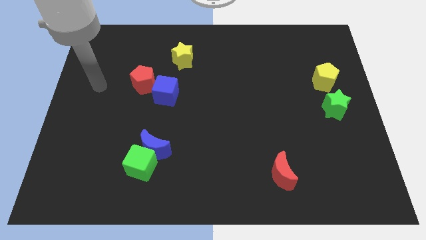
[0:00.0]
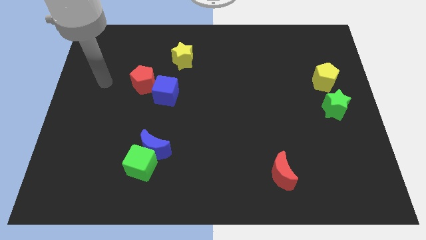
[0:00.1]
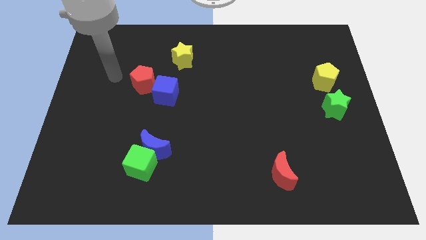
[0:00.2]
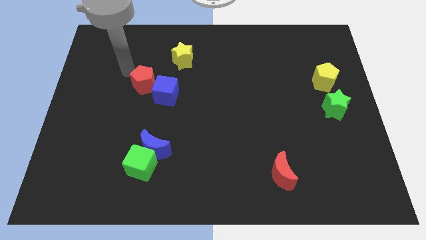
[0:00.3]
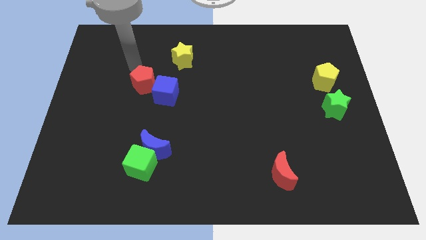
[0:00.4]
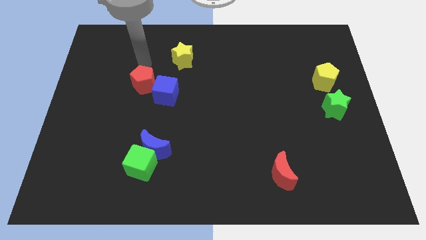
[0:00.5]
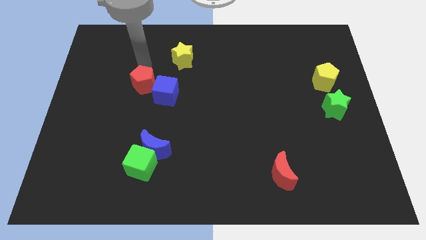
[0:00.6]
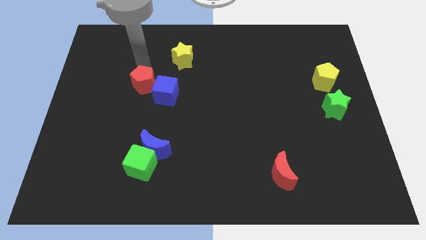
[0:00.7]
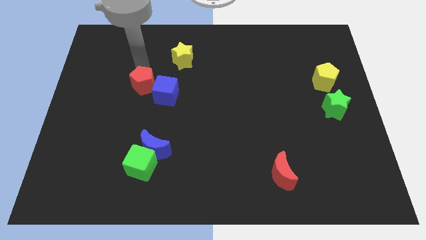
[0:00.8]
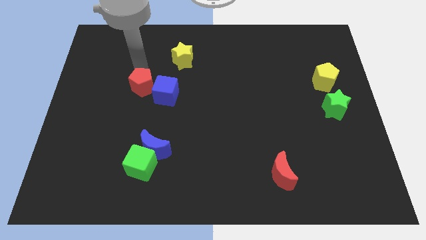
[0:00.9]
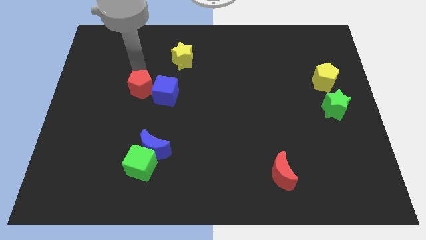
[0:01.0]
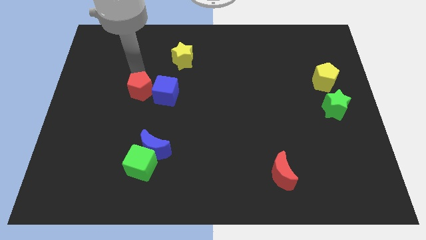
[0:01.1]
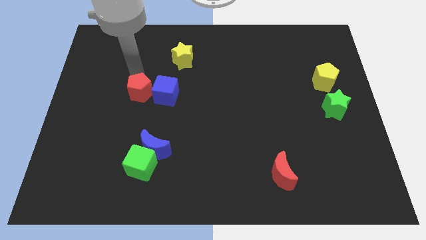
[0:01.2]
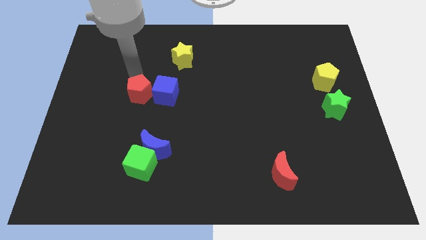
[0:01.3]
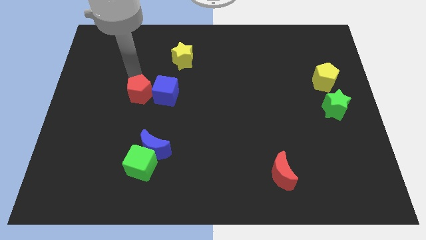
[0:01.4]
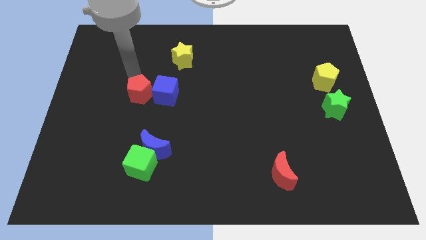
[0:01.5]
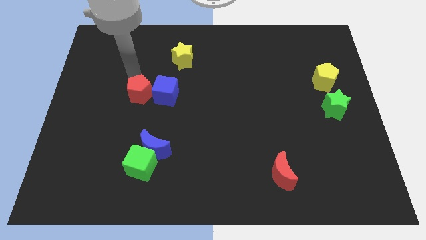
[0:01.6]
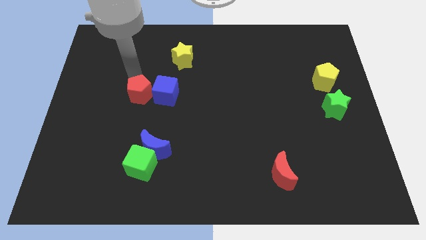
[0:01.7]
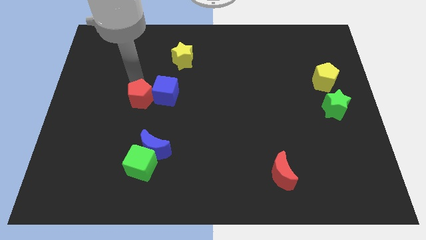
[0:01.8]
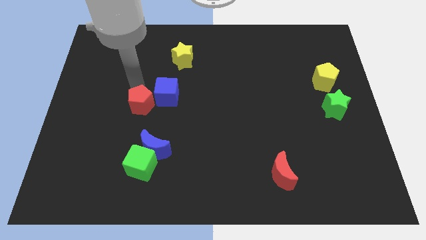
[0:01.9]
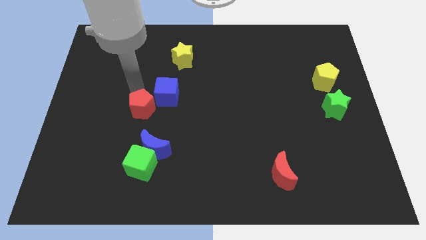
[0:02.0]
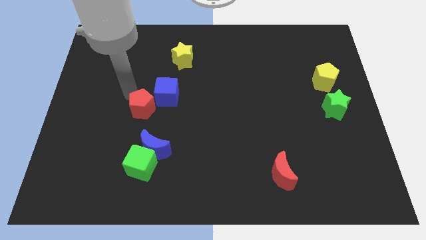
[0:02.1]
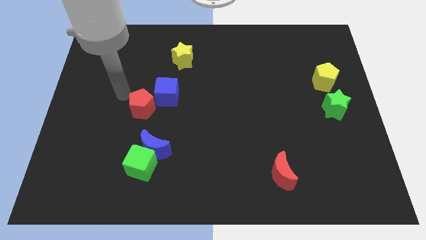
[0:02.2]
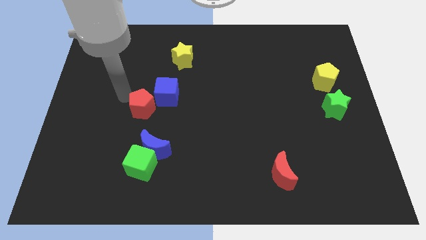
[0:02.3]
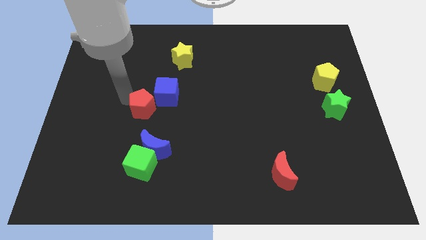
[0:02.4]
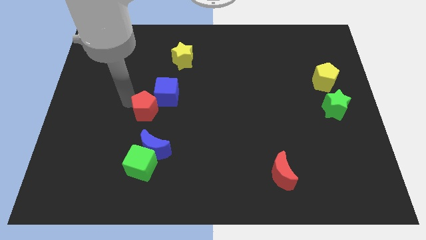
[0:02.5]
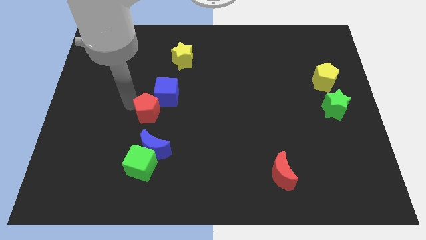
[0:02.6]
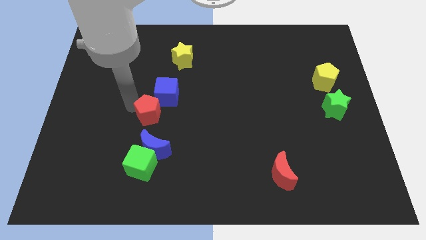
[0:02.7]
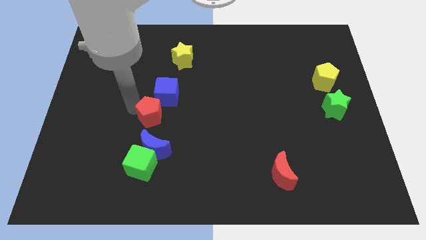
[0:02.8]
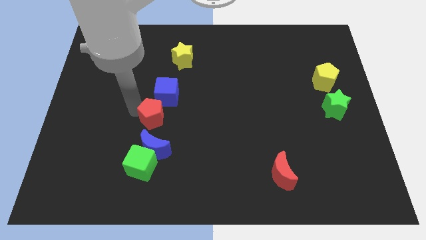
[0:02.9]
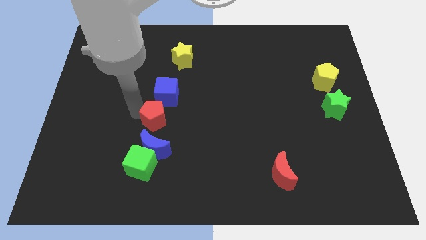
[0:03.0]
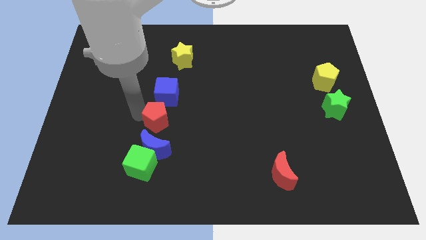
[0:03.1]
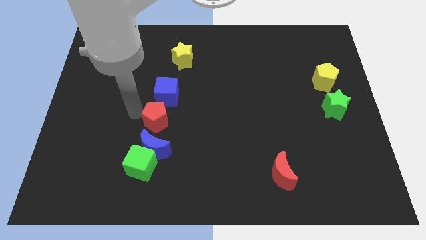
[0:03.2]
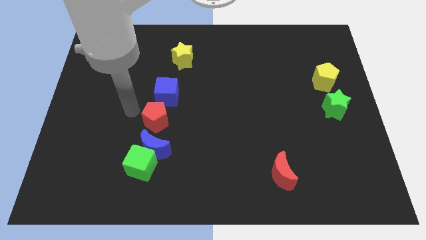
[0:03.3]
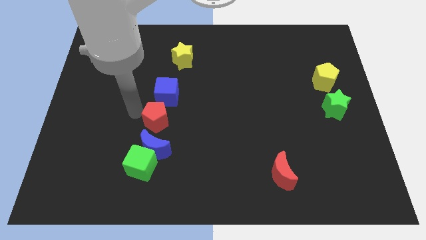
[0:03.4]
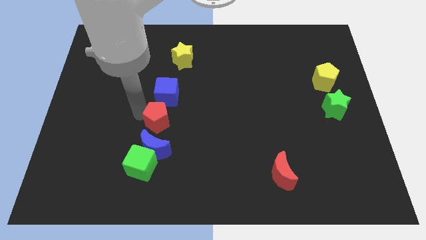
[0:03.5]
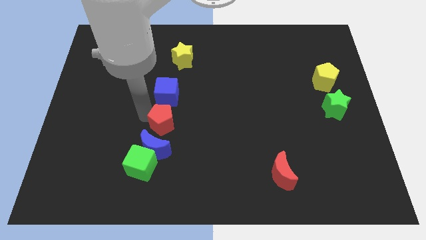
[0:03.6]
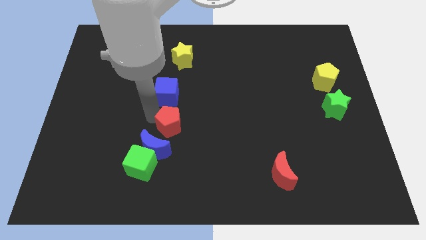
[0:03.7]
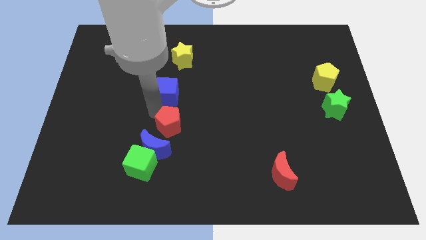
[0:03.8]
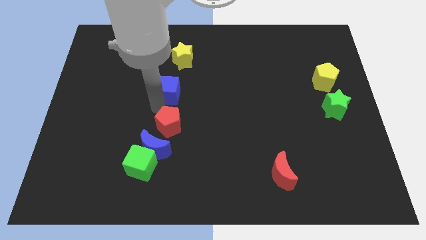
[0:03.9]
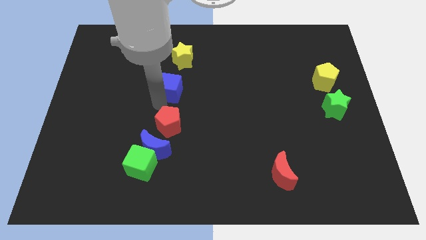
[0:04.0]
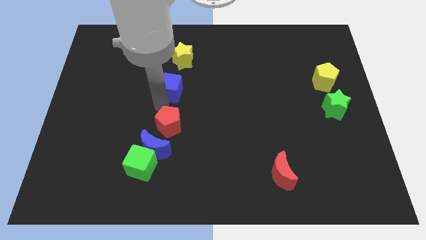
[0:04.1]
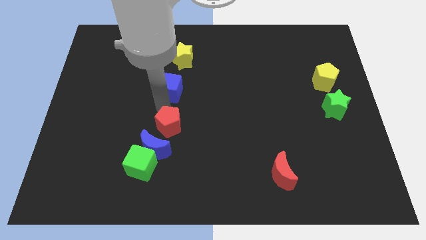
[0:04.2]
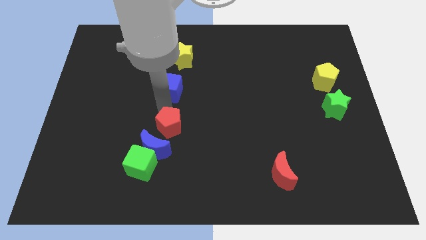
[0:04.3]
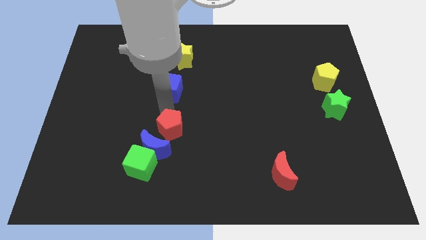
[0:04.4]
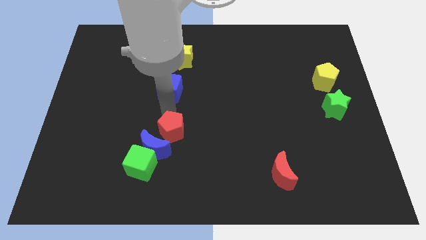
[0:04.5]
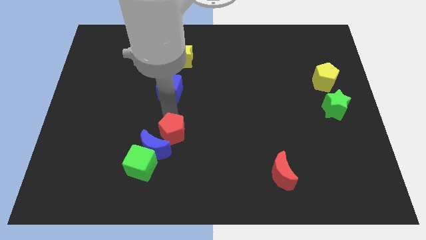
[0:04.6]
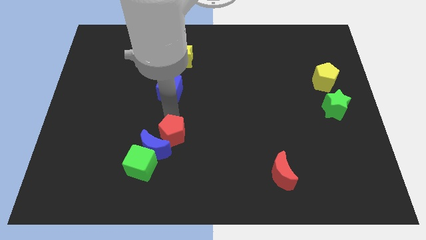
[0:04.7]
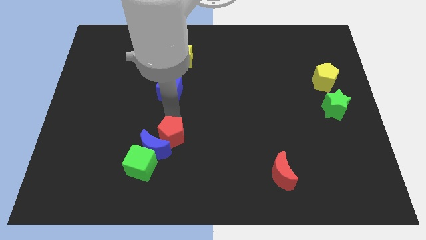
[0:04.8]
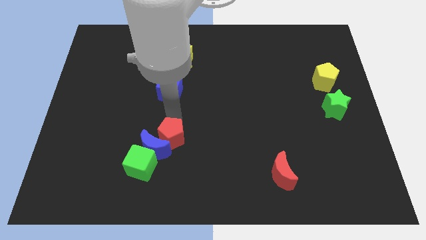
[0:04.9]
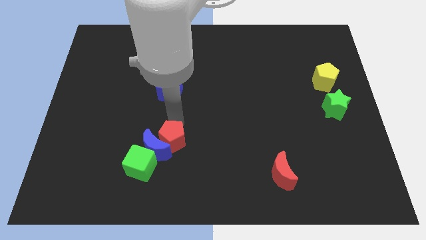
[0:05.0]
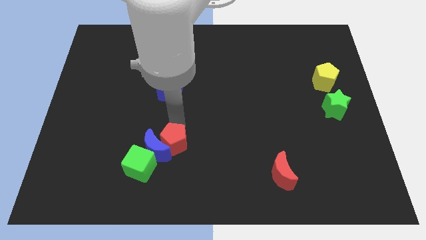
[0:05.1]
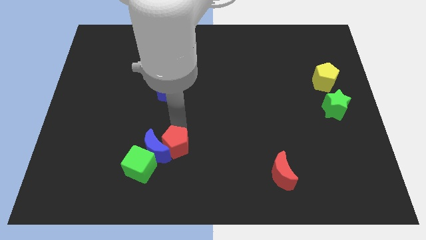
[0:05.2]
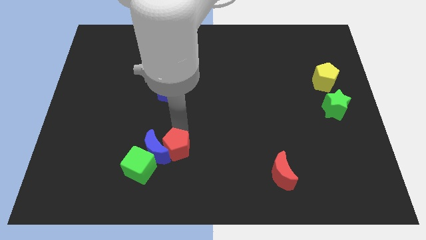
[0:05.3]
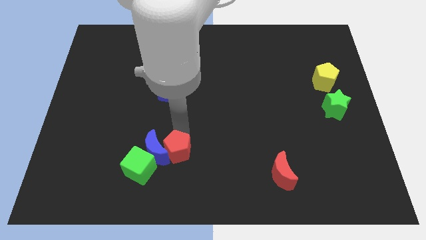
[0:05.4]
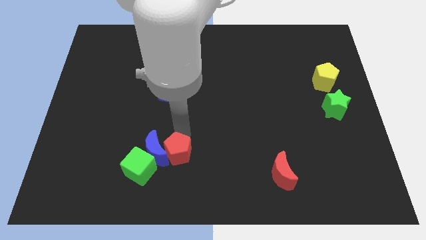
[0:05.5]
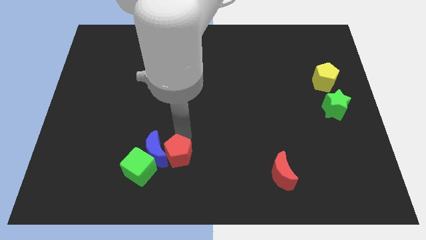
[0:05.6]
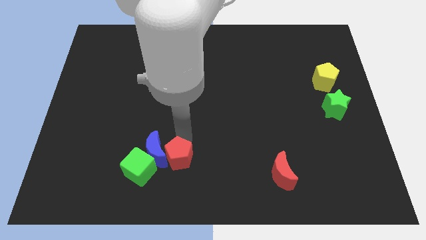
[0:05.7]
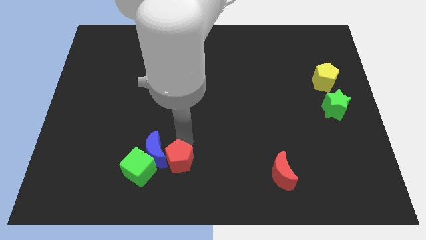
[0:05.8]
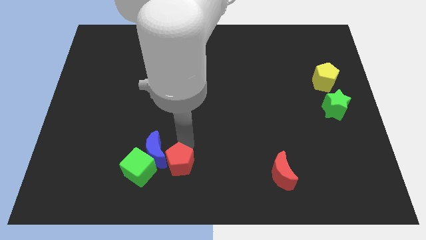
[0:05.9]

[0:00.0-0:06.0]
move the red pentagon to the bottom

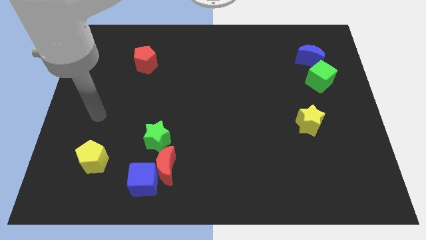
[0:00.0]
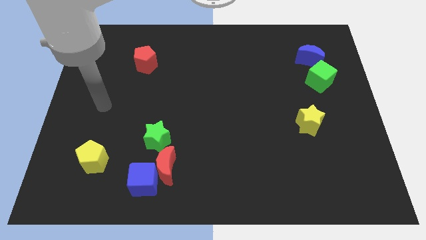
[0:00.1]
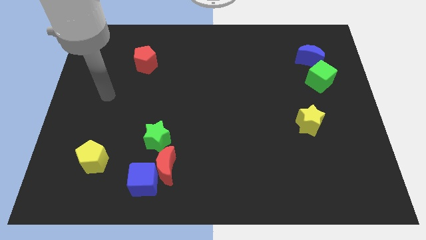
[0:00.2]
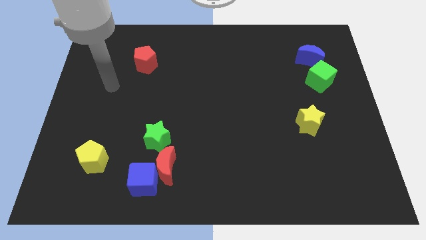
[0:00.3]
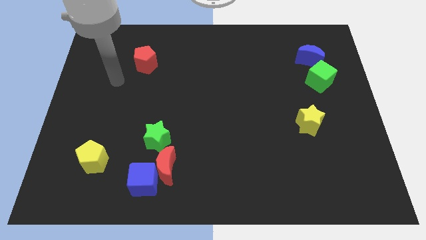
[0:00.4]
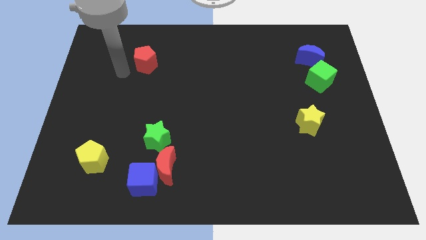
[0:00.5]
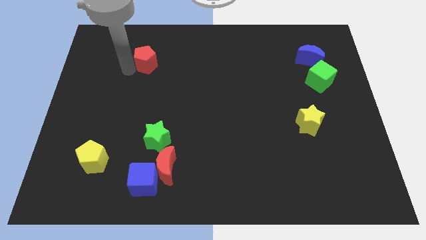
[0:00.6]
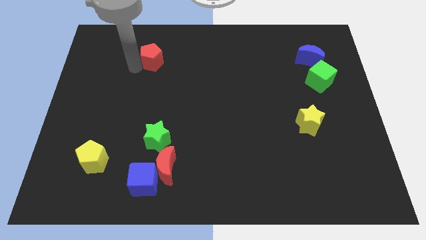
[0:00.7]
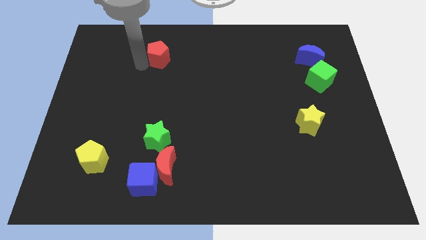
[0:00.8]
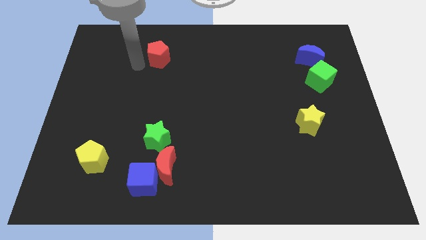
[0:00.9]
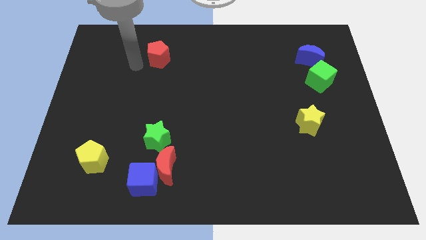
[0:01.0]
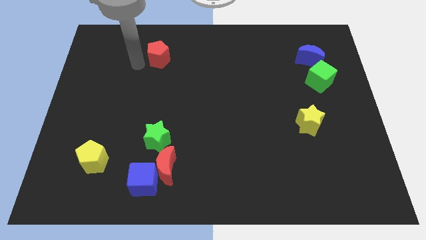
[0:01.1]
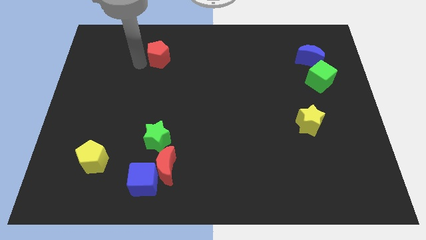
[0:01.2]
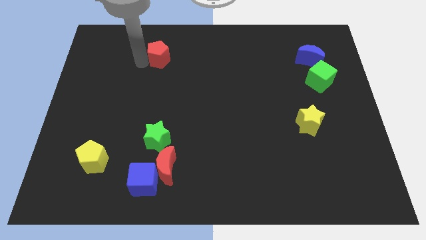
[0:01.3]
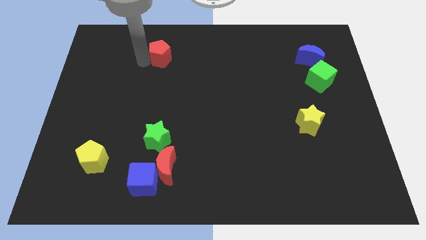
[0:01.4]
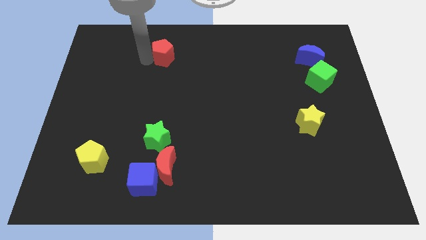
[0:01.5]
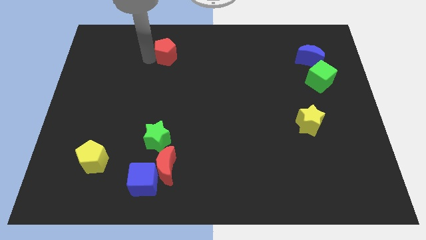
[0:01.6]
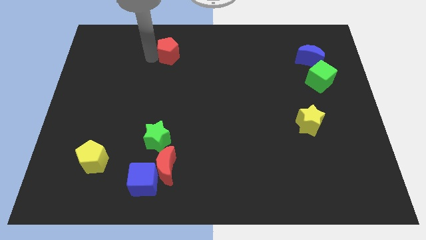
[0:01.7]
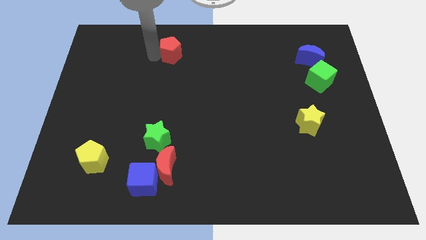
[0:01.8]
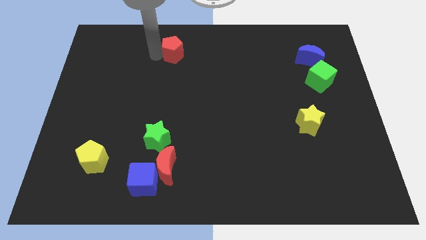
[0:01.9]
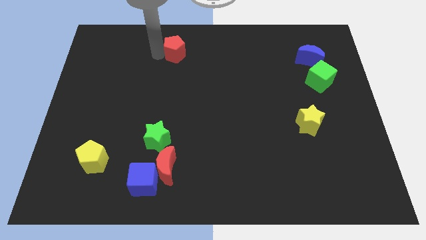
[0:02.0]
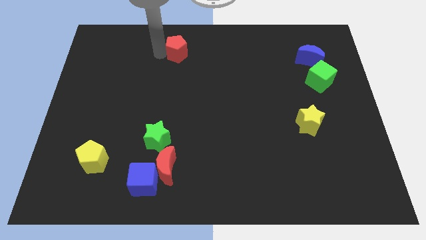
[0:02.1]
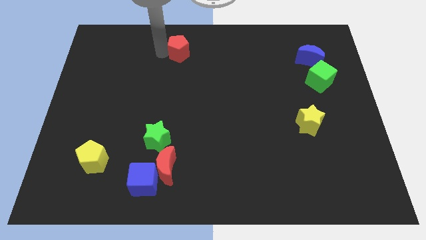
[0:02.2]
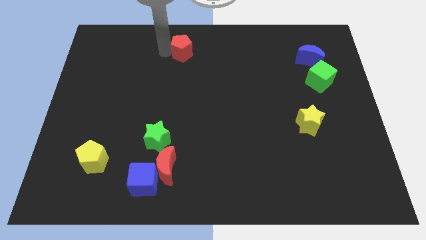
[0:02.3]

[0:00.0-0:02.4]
put the red pentagon to the top
